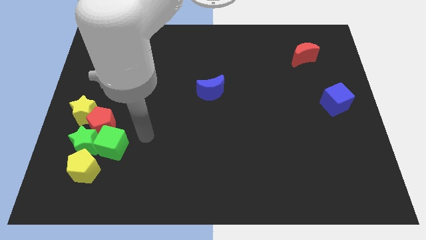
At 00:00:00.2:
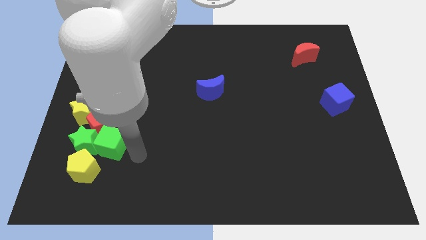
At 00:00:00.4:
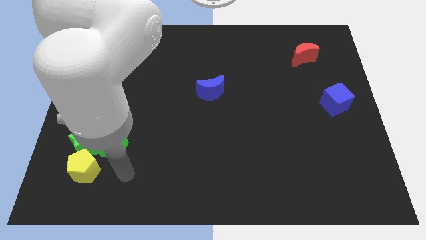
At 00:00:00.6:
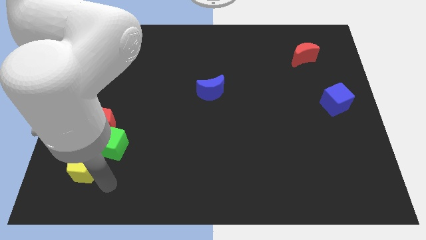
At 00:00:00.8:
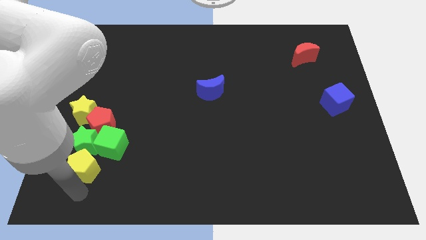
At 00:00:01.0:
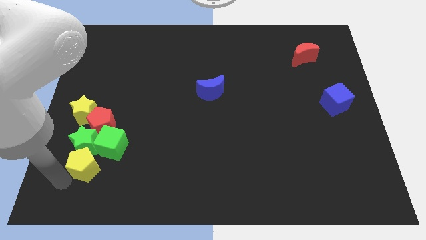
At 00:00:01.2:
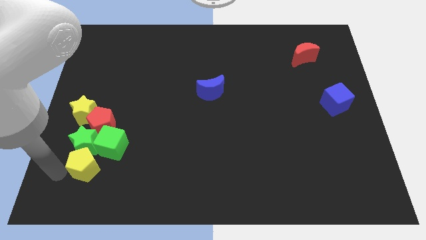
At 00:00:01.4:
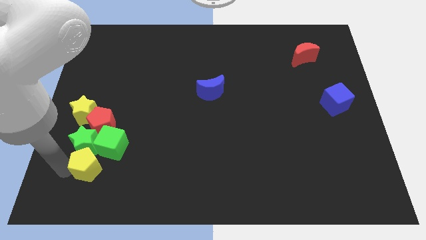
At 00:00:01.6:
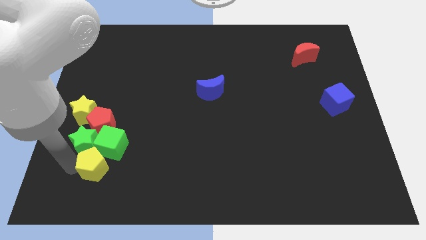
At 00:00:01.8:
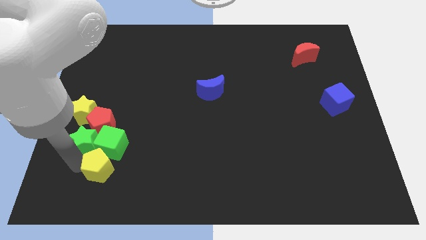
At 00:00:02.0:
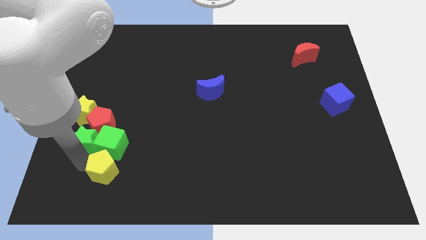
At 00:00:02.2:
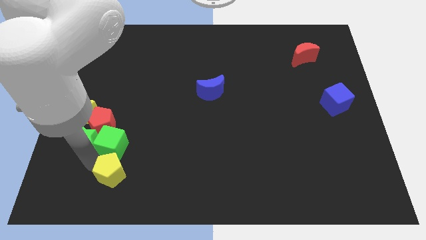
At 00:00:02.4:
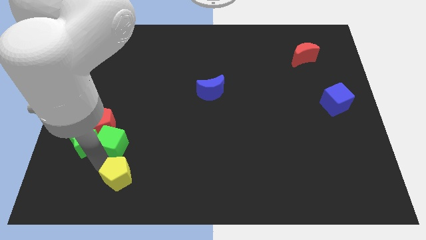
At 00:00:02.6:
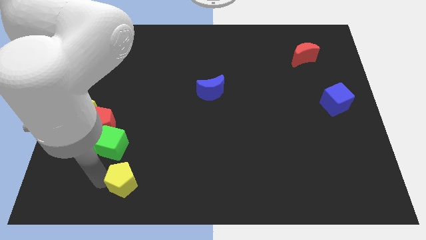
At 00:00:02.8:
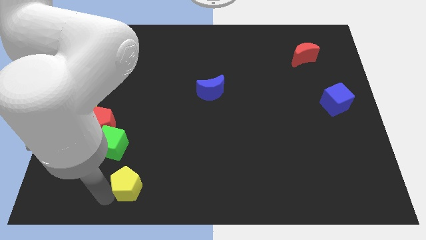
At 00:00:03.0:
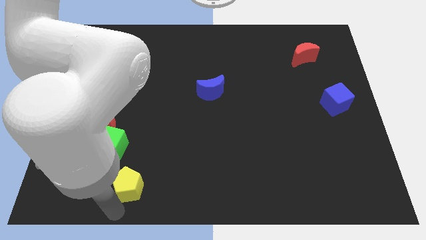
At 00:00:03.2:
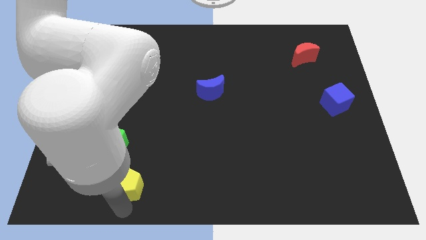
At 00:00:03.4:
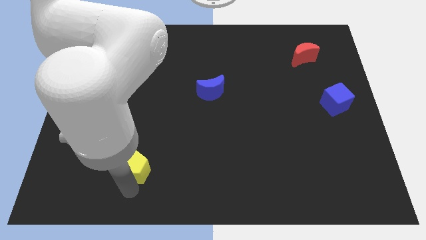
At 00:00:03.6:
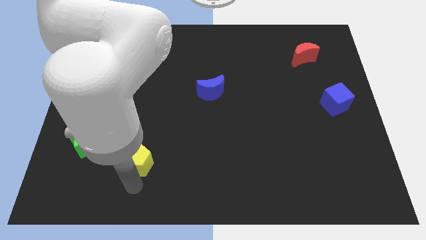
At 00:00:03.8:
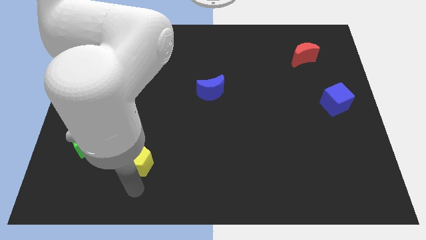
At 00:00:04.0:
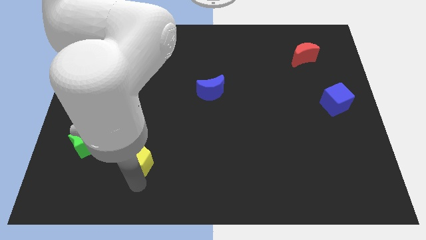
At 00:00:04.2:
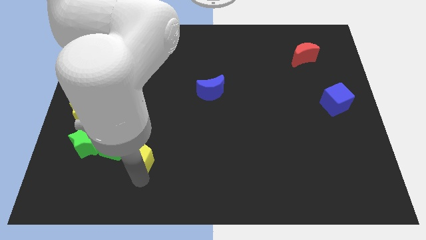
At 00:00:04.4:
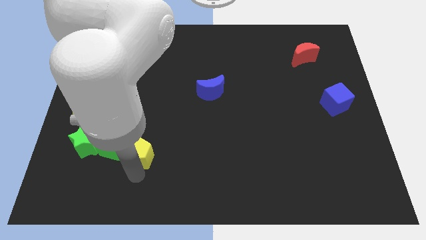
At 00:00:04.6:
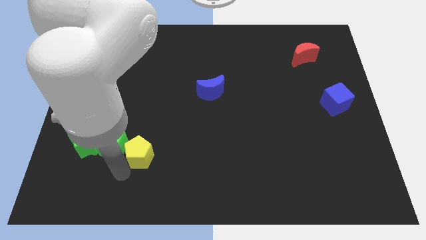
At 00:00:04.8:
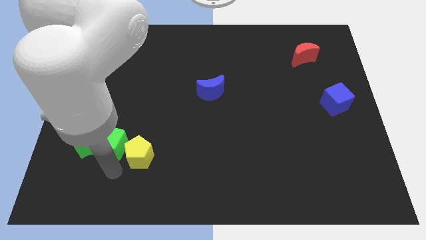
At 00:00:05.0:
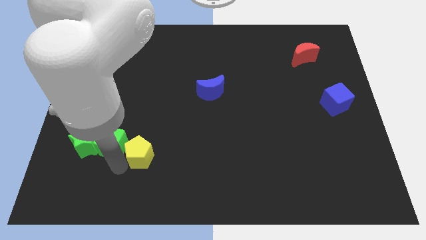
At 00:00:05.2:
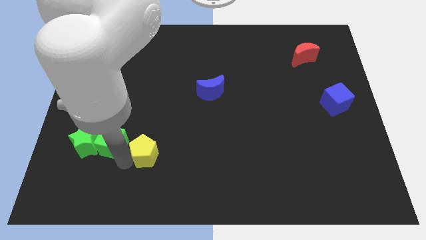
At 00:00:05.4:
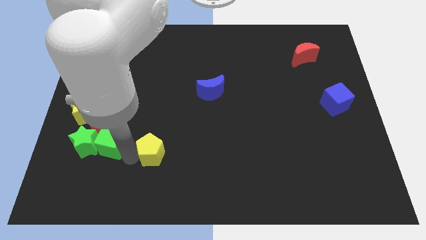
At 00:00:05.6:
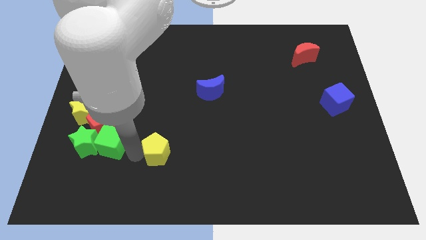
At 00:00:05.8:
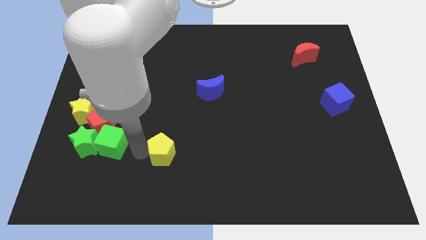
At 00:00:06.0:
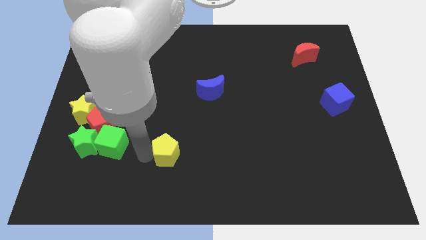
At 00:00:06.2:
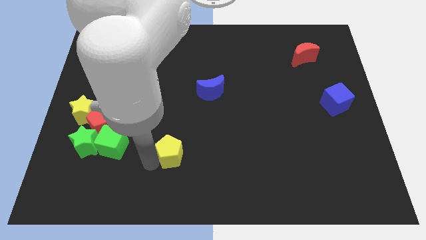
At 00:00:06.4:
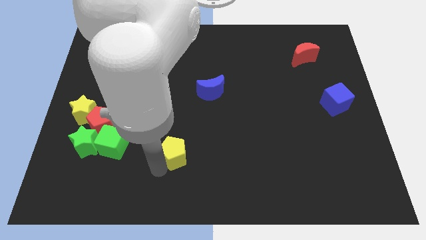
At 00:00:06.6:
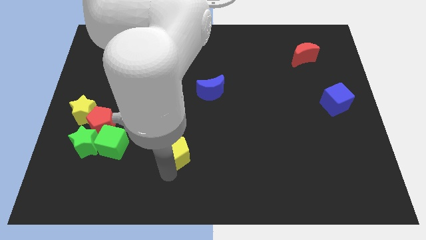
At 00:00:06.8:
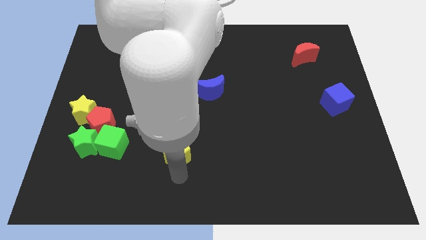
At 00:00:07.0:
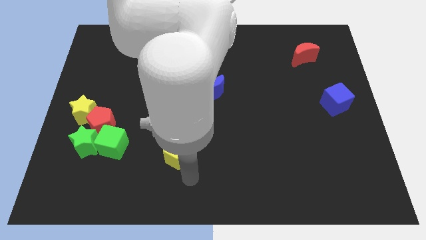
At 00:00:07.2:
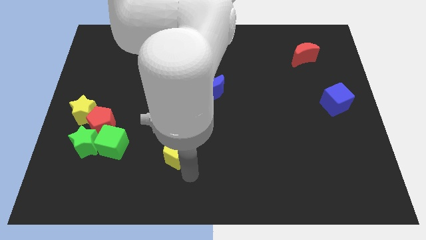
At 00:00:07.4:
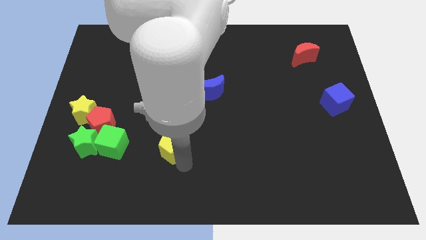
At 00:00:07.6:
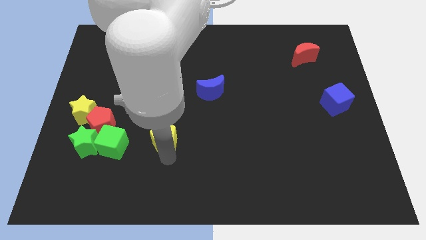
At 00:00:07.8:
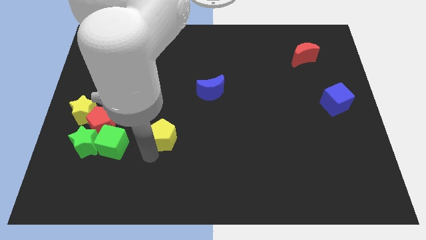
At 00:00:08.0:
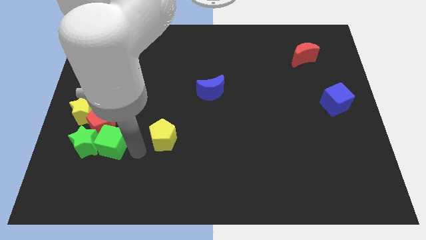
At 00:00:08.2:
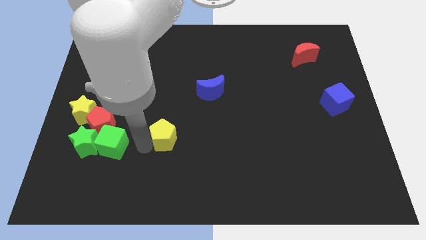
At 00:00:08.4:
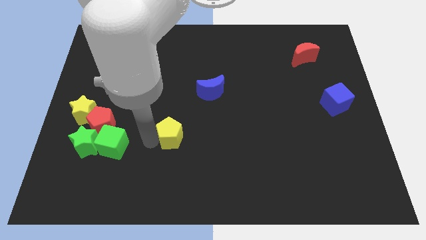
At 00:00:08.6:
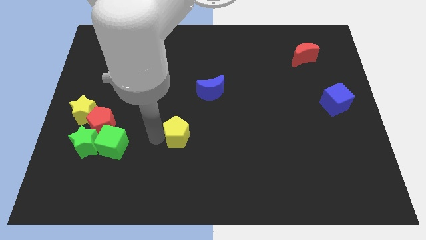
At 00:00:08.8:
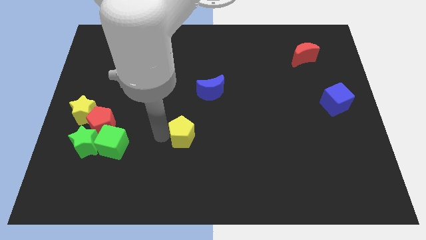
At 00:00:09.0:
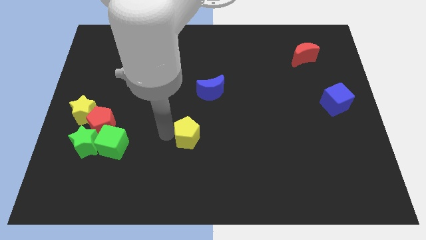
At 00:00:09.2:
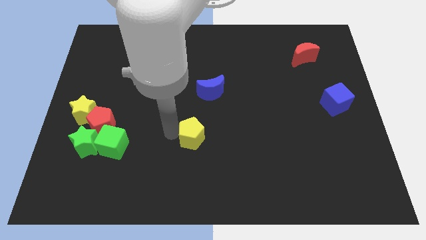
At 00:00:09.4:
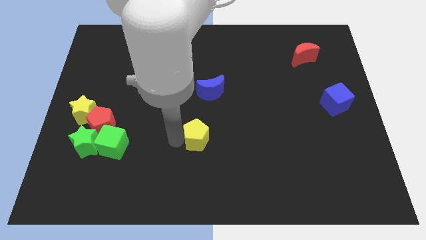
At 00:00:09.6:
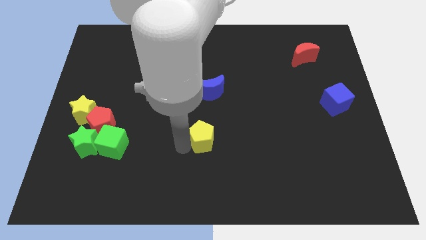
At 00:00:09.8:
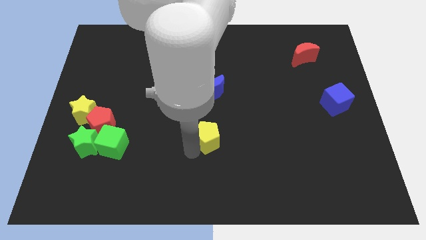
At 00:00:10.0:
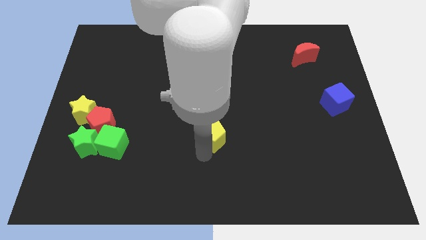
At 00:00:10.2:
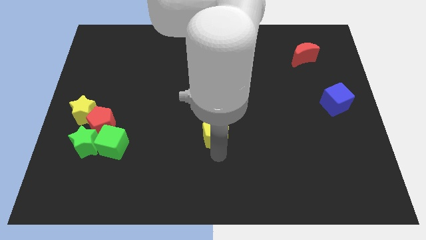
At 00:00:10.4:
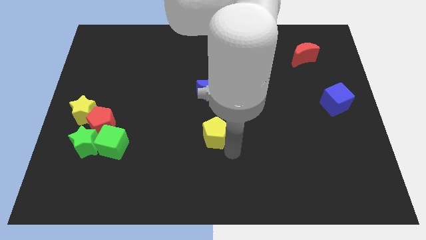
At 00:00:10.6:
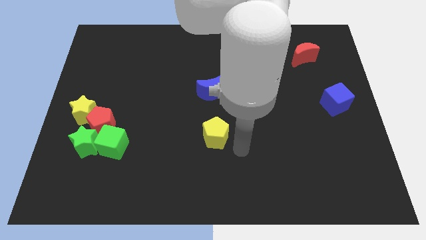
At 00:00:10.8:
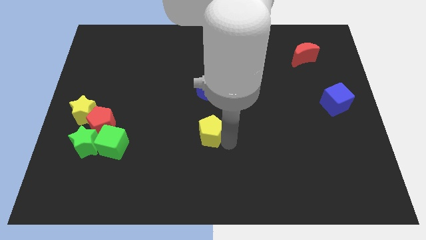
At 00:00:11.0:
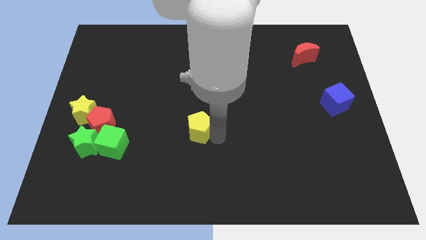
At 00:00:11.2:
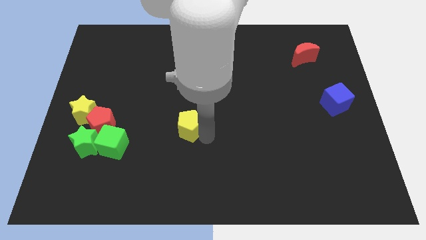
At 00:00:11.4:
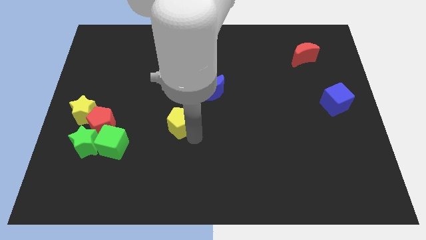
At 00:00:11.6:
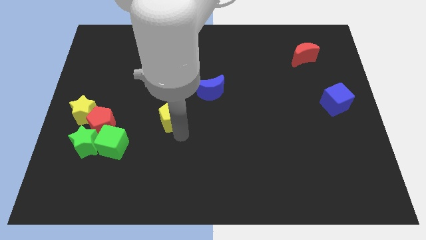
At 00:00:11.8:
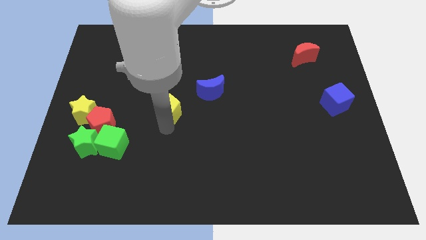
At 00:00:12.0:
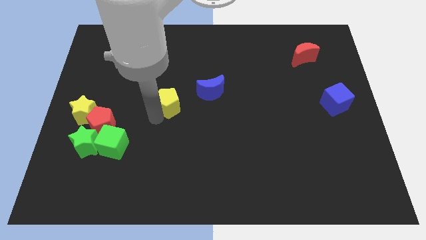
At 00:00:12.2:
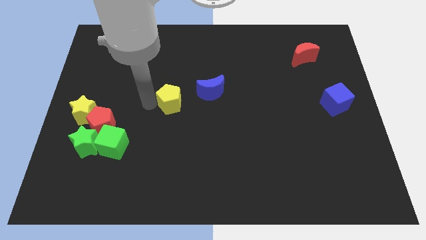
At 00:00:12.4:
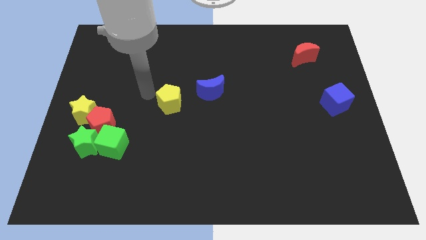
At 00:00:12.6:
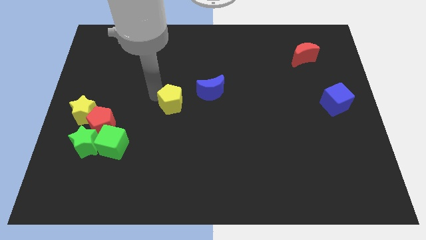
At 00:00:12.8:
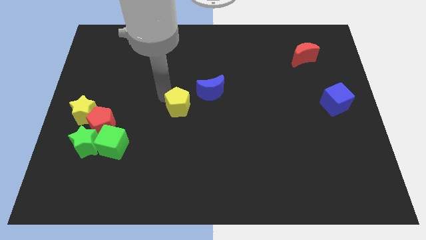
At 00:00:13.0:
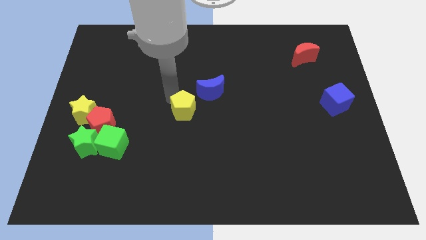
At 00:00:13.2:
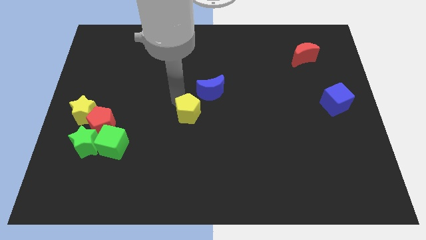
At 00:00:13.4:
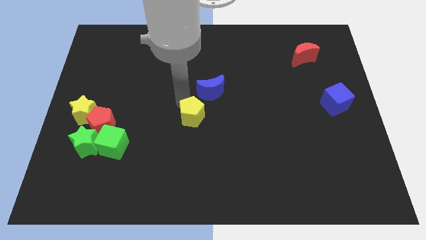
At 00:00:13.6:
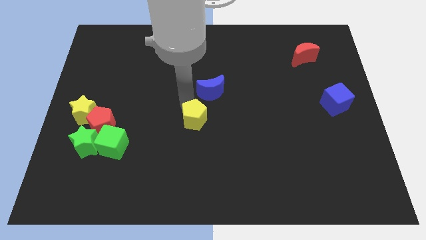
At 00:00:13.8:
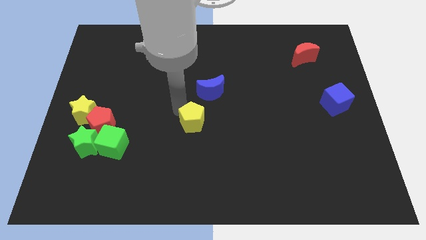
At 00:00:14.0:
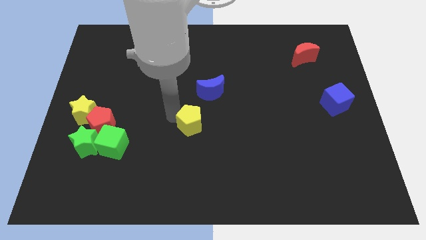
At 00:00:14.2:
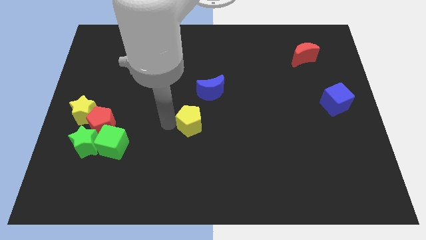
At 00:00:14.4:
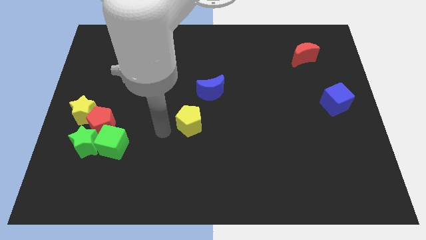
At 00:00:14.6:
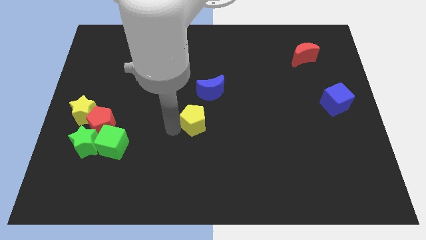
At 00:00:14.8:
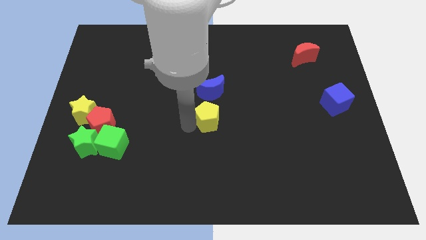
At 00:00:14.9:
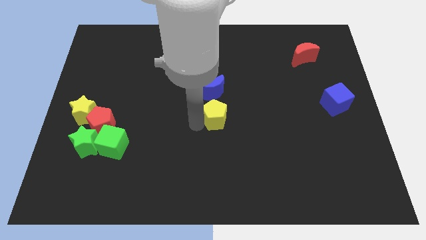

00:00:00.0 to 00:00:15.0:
move the yellow pentagon to the bottom right of the blue moon
